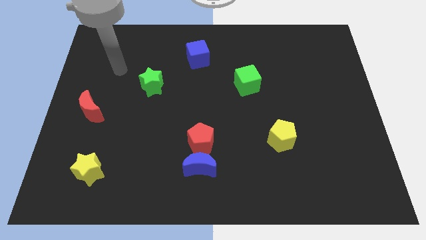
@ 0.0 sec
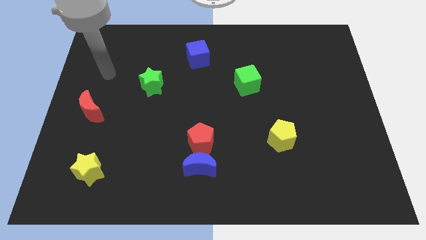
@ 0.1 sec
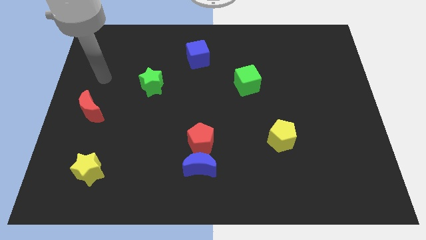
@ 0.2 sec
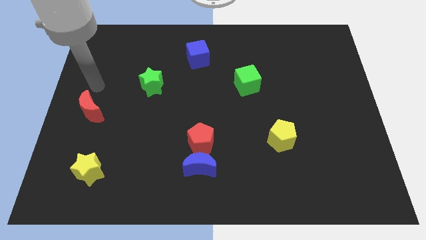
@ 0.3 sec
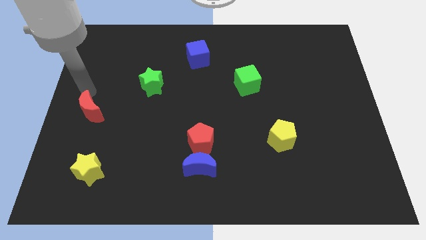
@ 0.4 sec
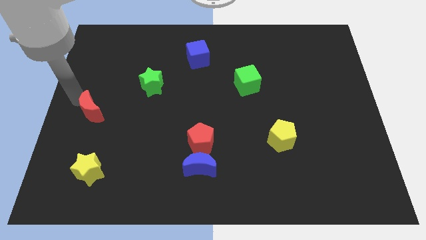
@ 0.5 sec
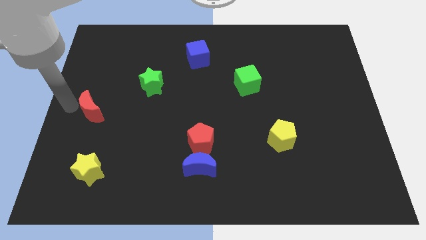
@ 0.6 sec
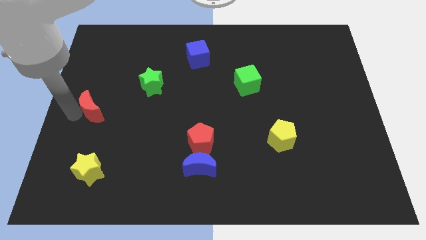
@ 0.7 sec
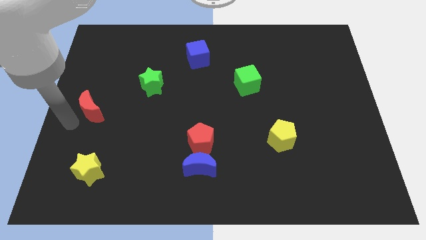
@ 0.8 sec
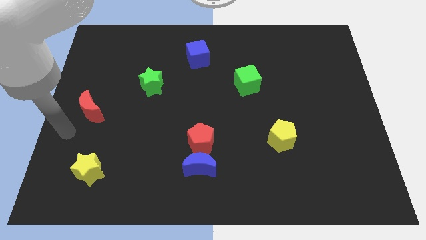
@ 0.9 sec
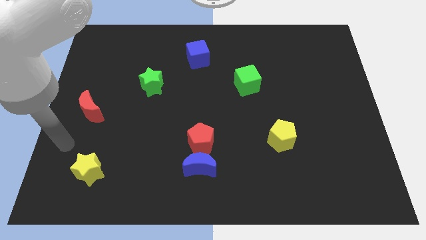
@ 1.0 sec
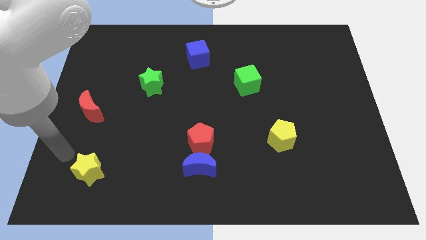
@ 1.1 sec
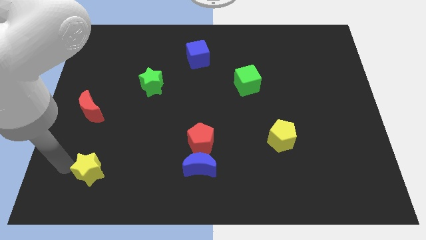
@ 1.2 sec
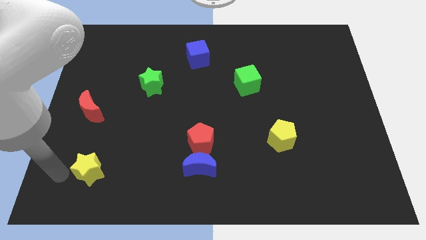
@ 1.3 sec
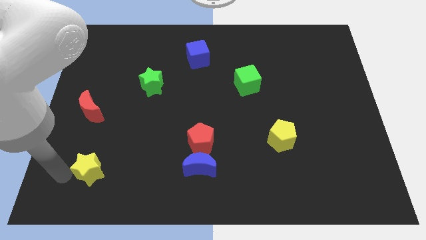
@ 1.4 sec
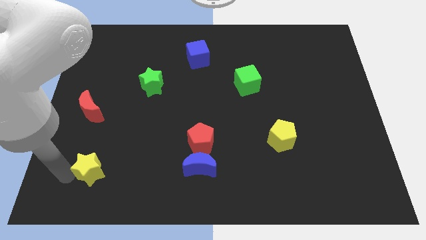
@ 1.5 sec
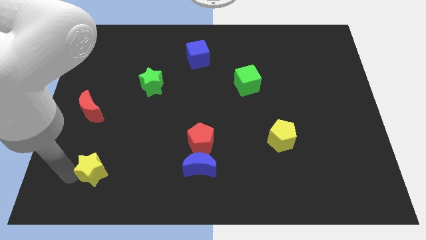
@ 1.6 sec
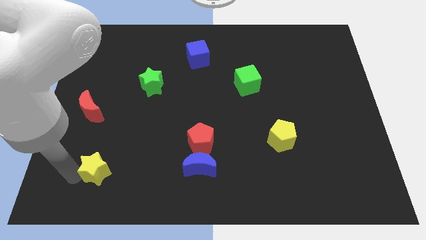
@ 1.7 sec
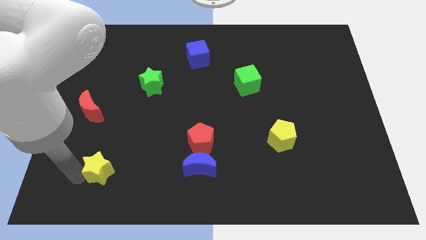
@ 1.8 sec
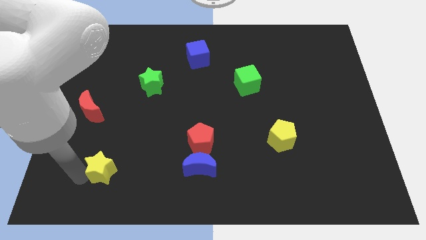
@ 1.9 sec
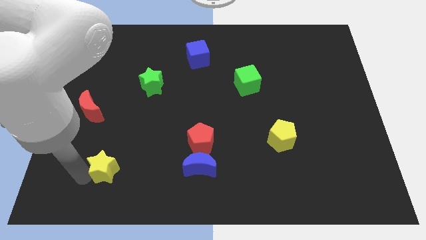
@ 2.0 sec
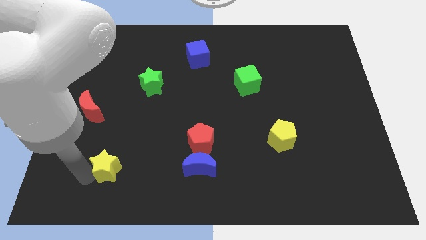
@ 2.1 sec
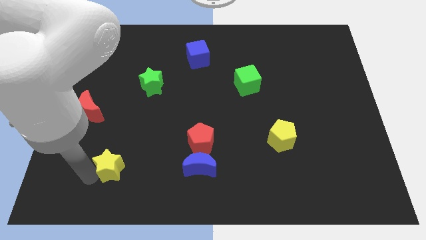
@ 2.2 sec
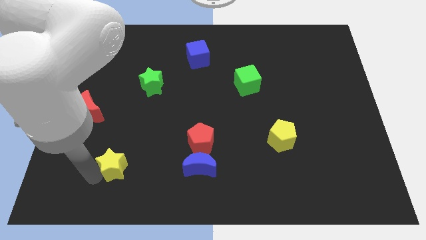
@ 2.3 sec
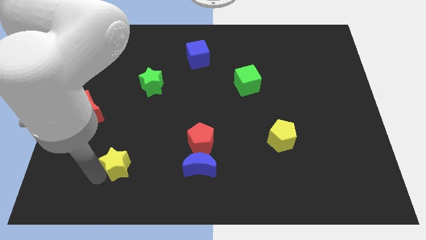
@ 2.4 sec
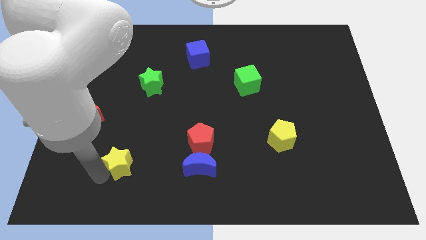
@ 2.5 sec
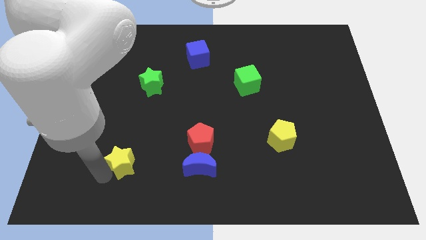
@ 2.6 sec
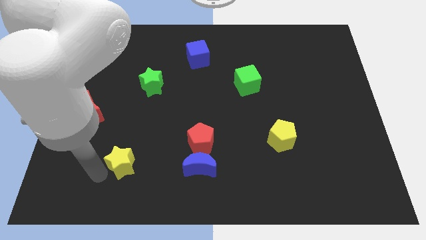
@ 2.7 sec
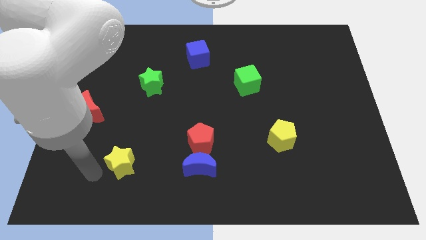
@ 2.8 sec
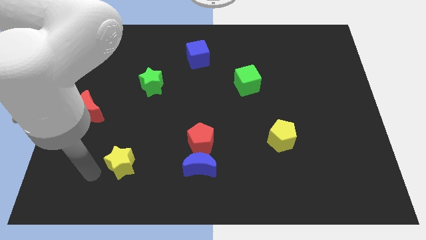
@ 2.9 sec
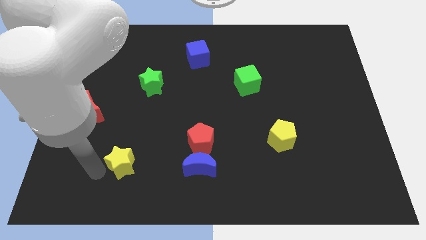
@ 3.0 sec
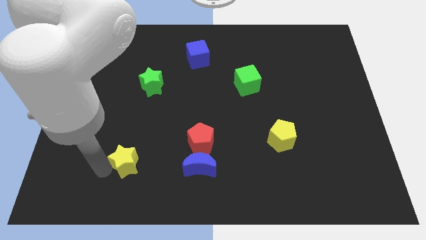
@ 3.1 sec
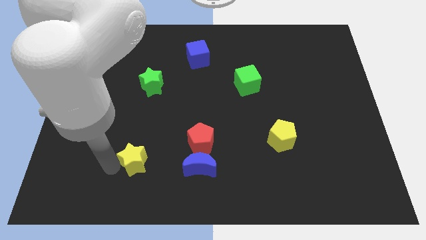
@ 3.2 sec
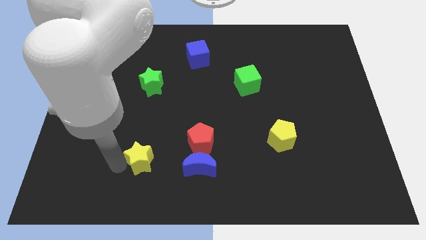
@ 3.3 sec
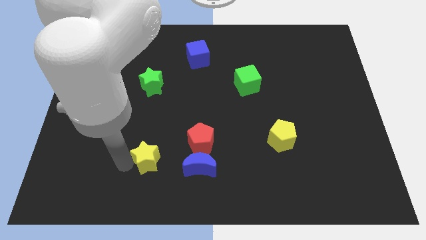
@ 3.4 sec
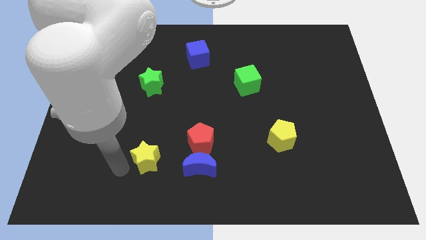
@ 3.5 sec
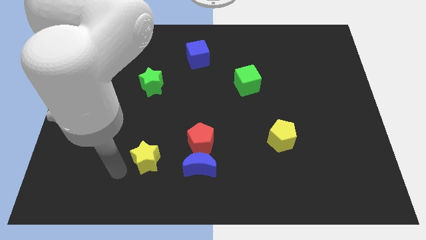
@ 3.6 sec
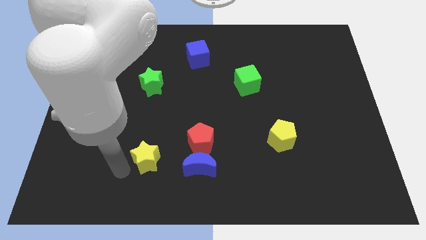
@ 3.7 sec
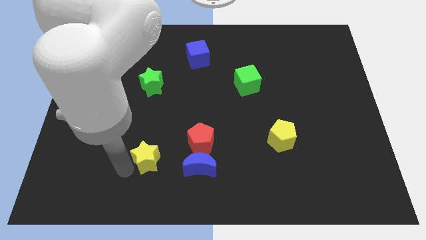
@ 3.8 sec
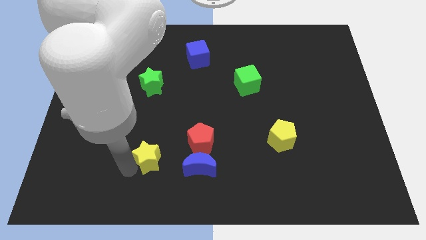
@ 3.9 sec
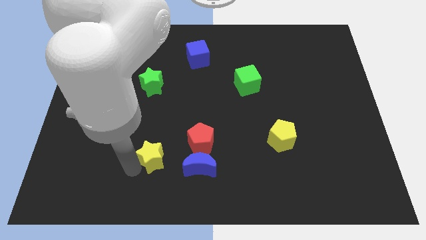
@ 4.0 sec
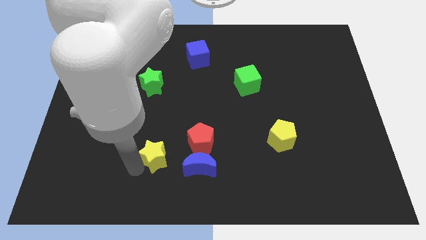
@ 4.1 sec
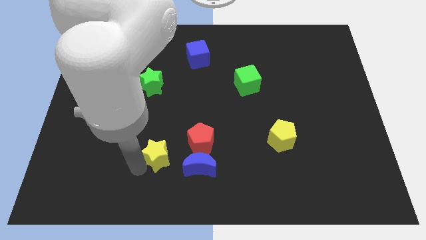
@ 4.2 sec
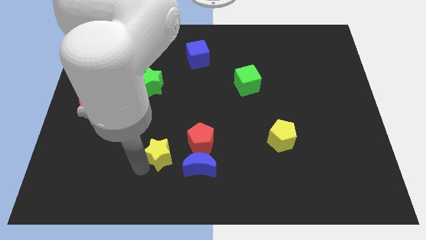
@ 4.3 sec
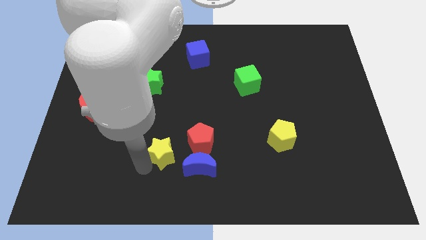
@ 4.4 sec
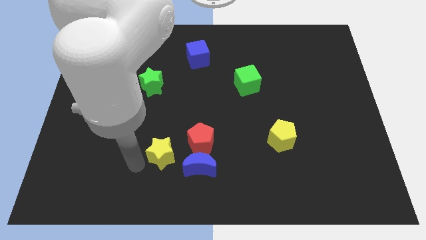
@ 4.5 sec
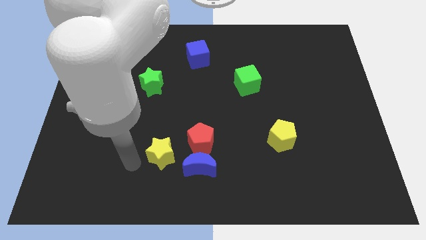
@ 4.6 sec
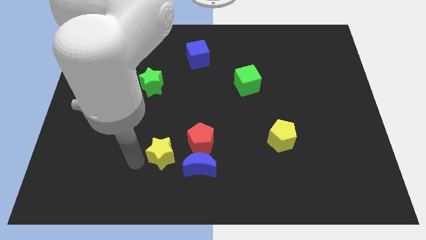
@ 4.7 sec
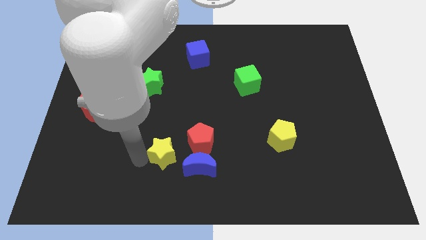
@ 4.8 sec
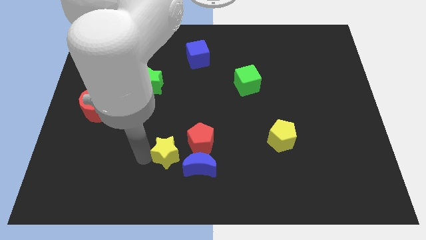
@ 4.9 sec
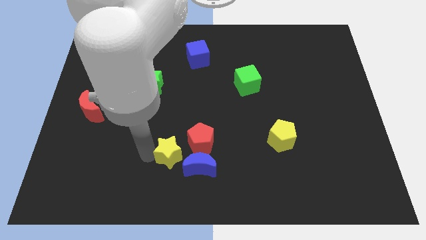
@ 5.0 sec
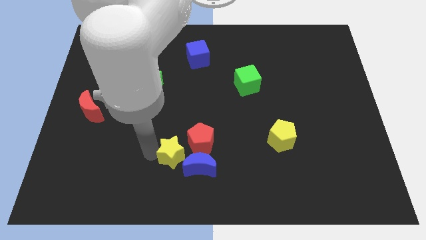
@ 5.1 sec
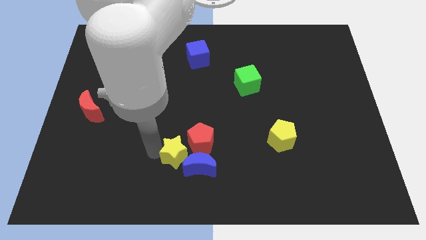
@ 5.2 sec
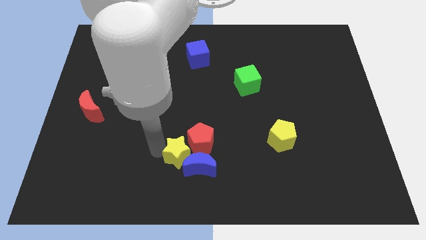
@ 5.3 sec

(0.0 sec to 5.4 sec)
move the yellow star close to the red pentagon

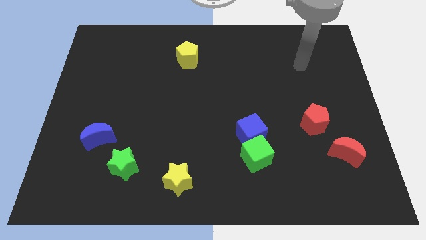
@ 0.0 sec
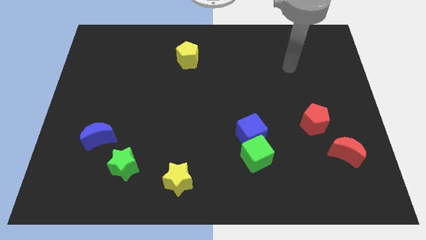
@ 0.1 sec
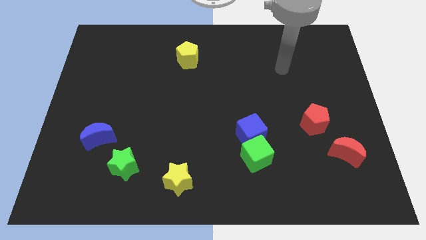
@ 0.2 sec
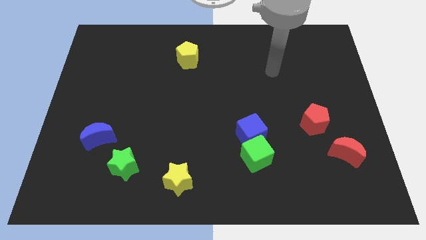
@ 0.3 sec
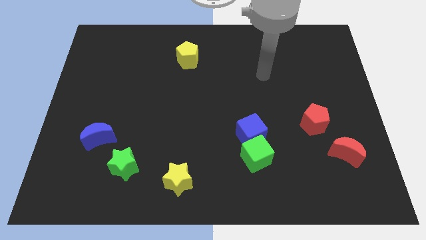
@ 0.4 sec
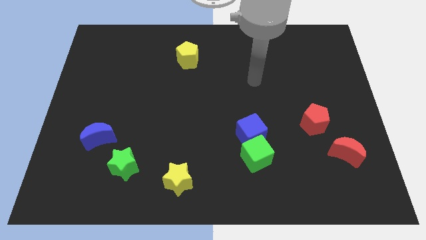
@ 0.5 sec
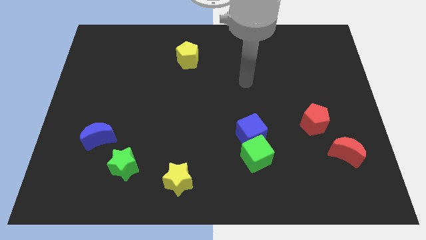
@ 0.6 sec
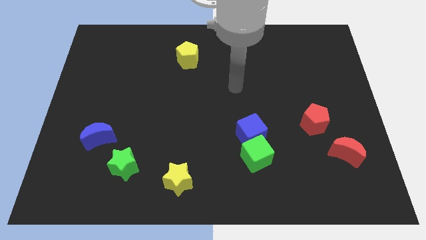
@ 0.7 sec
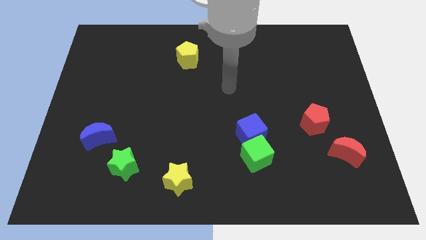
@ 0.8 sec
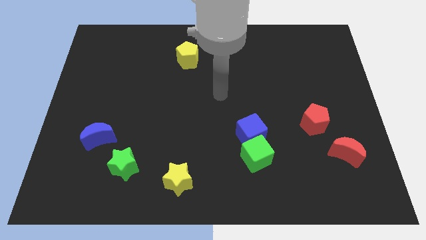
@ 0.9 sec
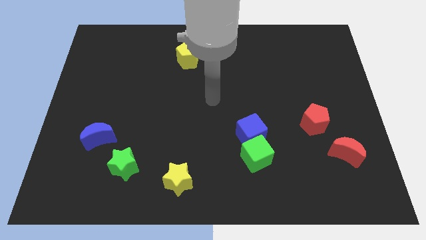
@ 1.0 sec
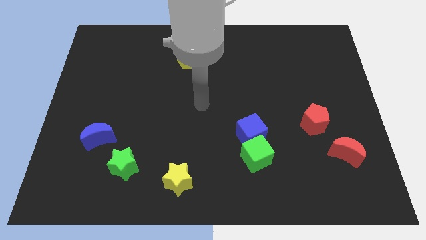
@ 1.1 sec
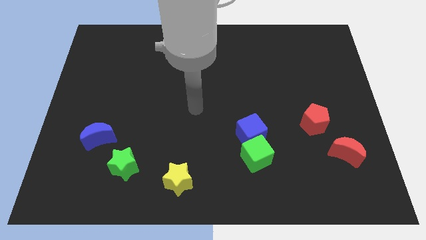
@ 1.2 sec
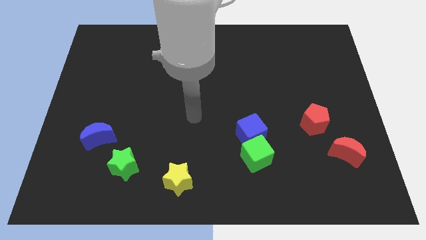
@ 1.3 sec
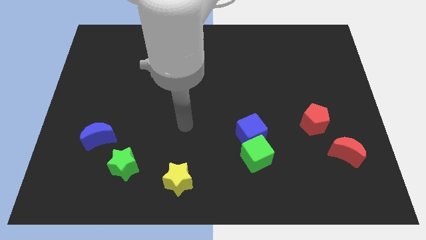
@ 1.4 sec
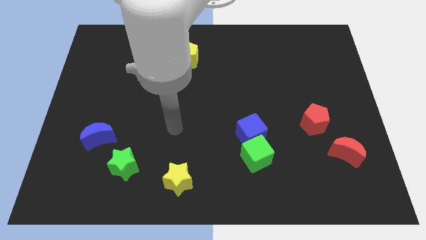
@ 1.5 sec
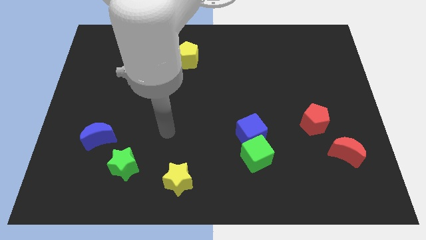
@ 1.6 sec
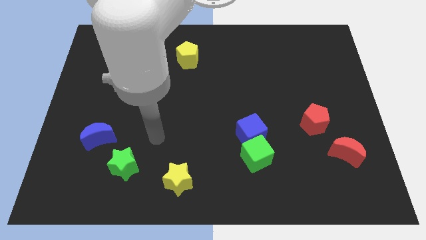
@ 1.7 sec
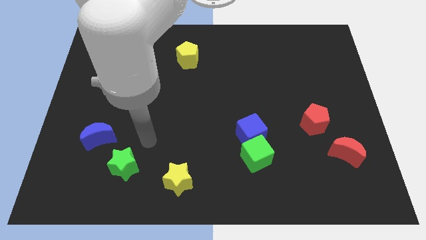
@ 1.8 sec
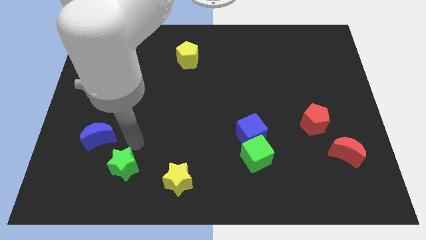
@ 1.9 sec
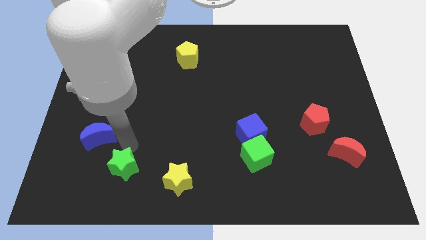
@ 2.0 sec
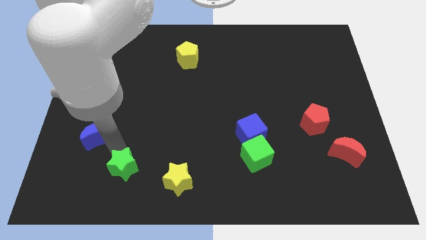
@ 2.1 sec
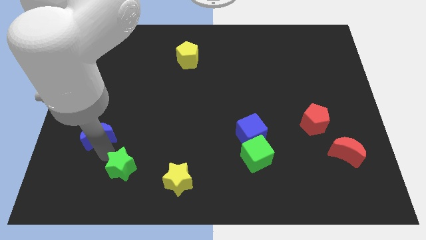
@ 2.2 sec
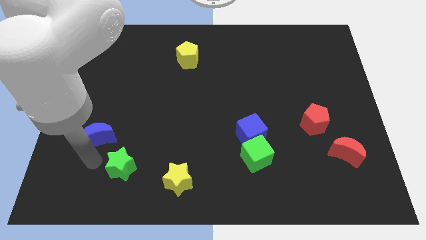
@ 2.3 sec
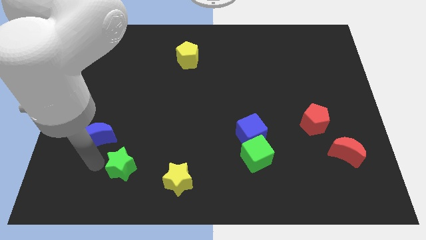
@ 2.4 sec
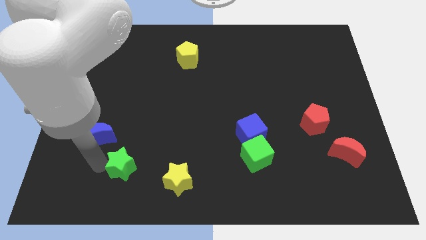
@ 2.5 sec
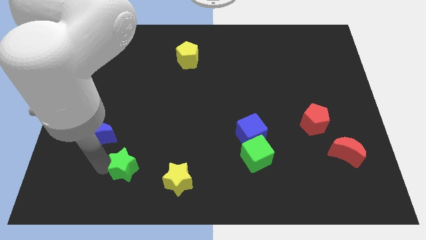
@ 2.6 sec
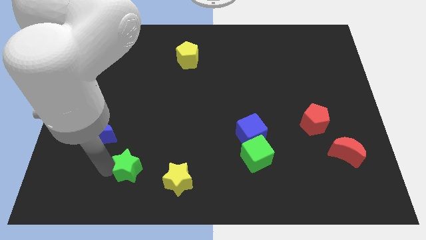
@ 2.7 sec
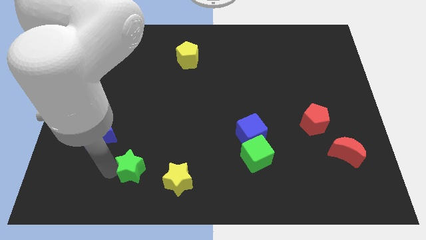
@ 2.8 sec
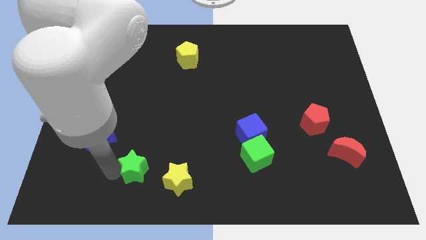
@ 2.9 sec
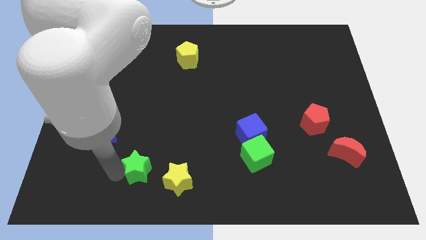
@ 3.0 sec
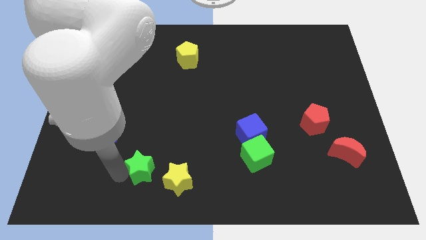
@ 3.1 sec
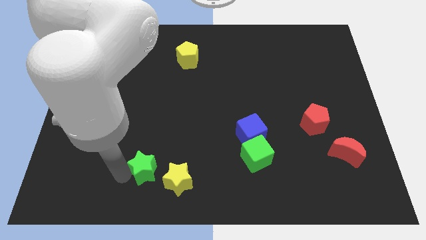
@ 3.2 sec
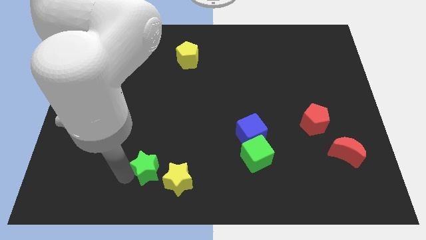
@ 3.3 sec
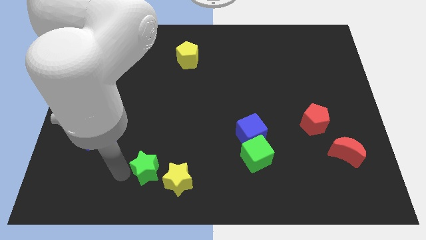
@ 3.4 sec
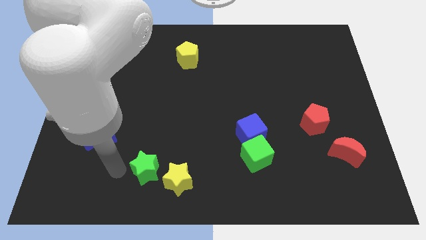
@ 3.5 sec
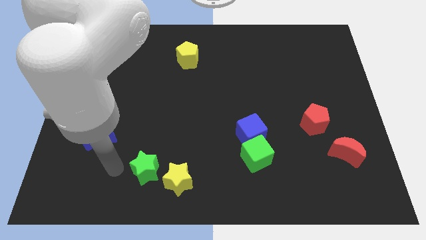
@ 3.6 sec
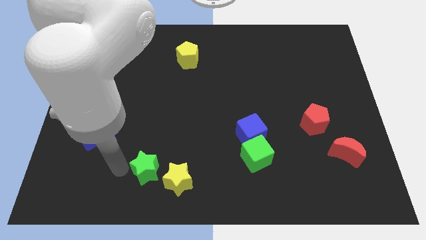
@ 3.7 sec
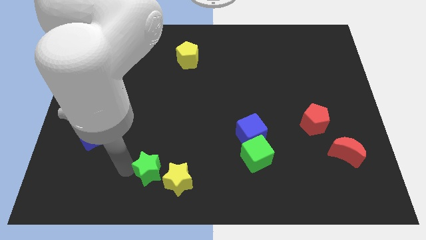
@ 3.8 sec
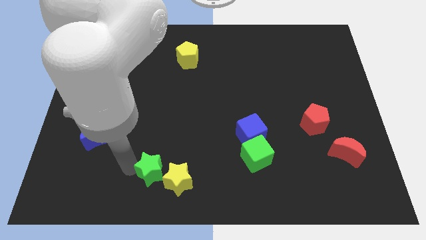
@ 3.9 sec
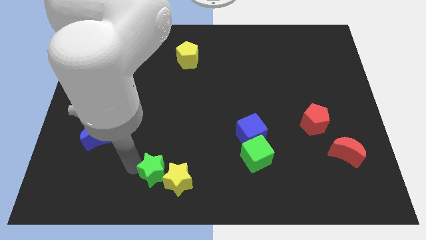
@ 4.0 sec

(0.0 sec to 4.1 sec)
push the green star towards the yellow star
